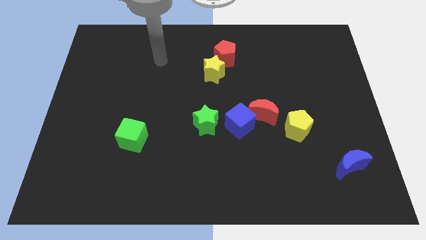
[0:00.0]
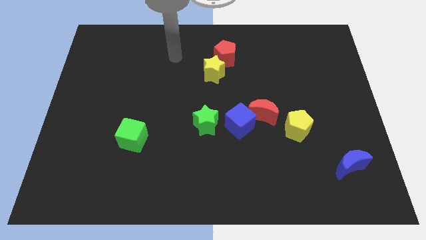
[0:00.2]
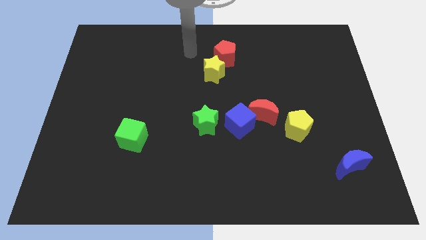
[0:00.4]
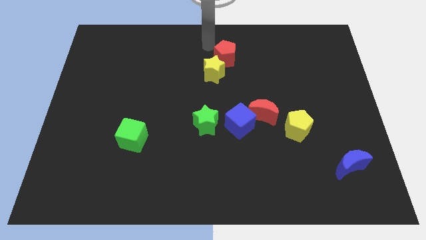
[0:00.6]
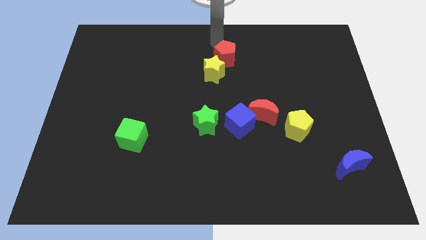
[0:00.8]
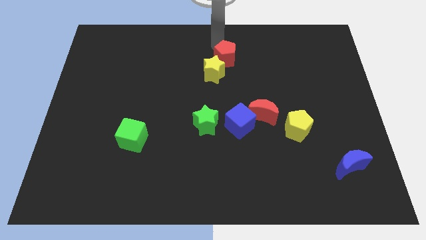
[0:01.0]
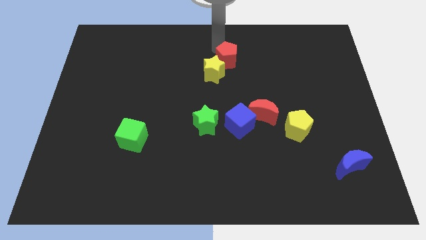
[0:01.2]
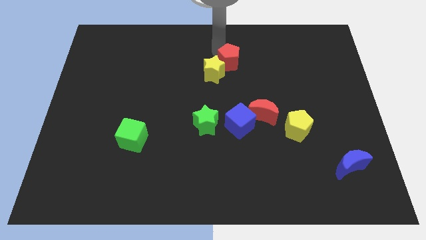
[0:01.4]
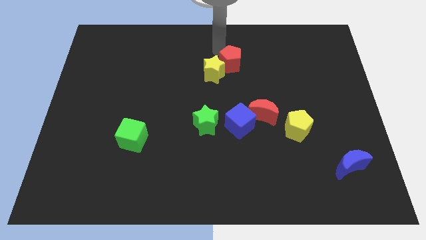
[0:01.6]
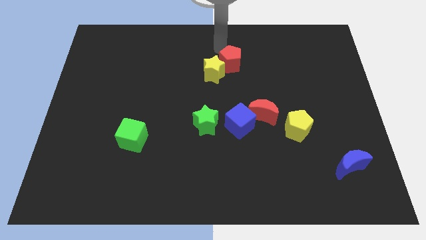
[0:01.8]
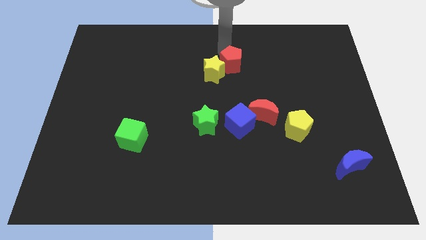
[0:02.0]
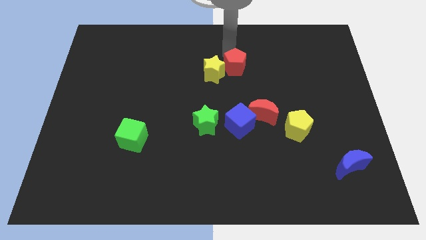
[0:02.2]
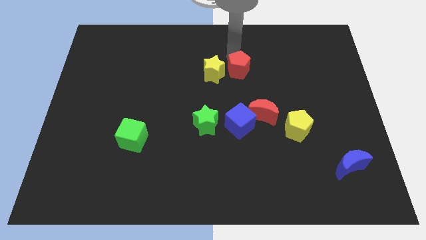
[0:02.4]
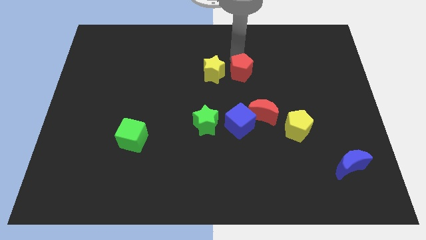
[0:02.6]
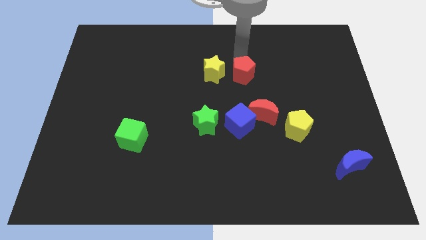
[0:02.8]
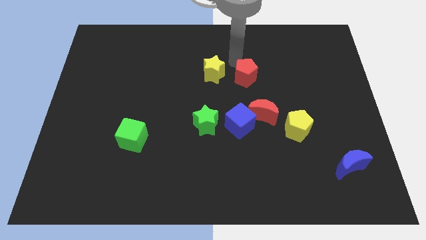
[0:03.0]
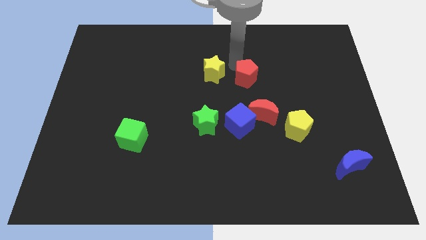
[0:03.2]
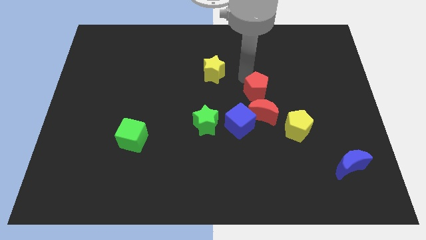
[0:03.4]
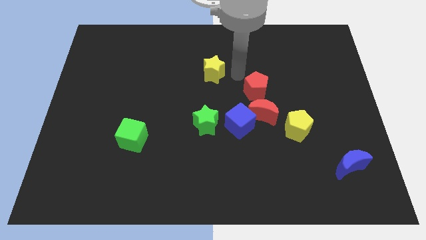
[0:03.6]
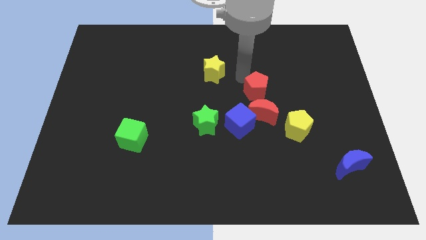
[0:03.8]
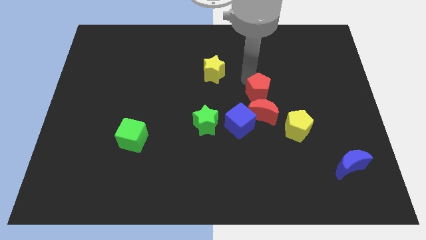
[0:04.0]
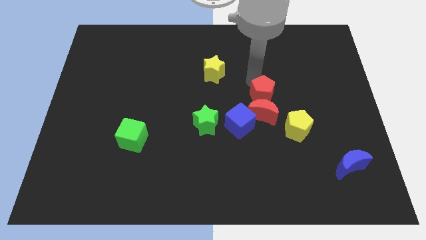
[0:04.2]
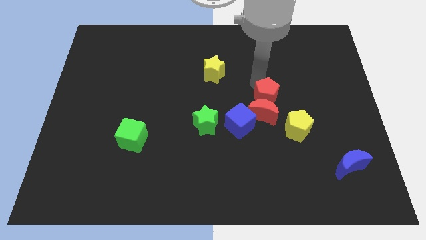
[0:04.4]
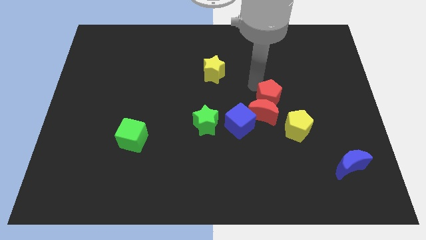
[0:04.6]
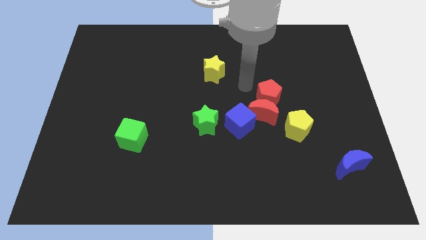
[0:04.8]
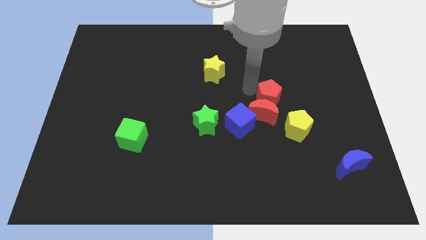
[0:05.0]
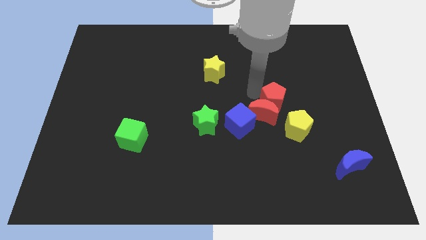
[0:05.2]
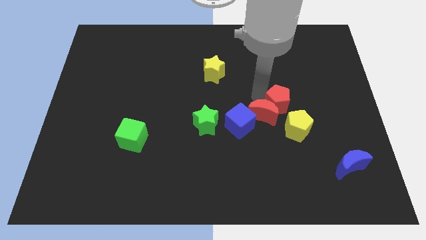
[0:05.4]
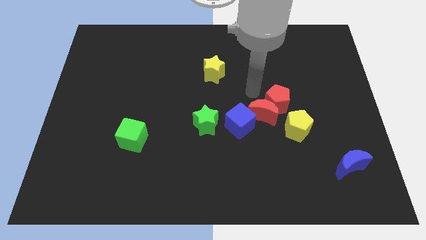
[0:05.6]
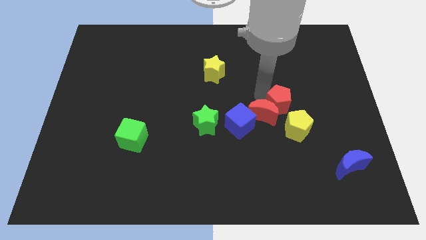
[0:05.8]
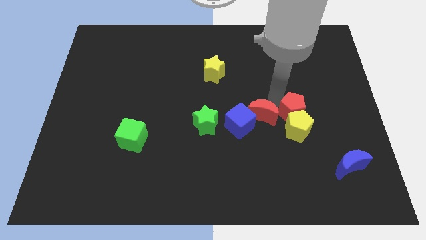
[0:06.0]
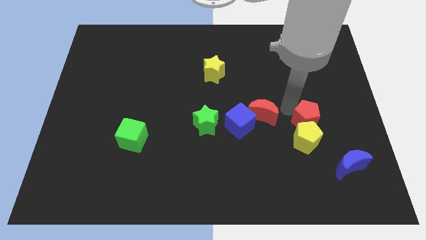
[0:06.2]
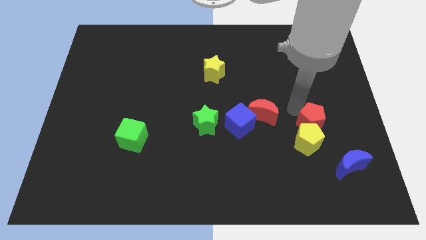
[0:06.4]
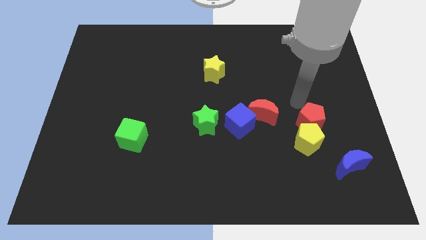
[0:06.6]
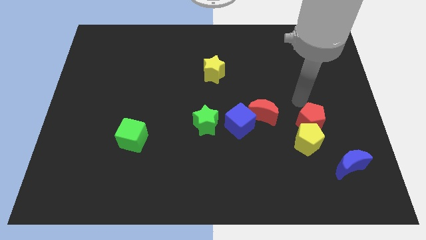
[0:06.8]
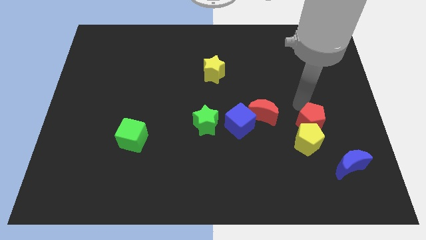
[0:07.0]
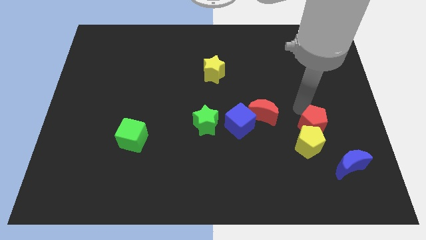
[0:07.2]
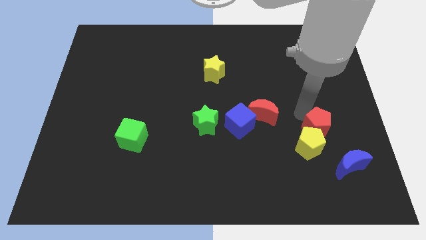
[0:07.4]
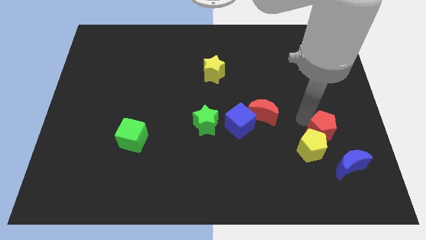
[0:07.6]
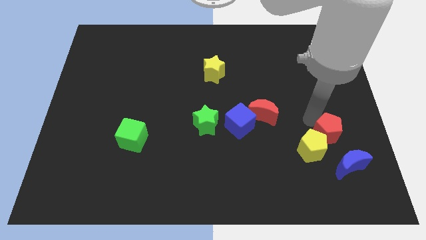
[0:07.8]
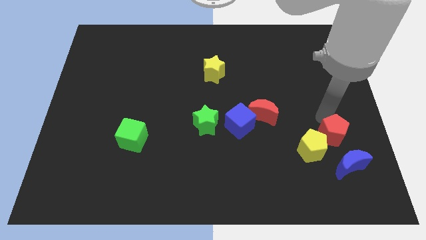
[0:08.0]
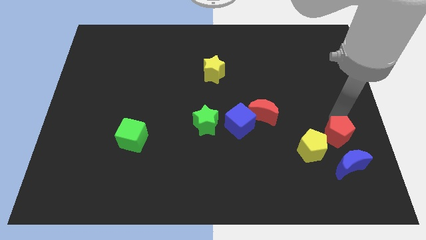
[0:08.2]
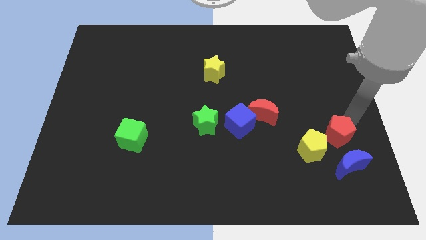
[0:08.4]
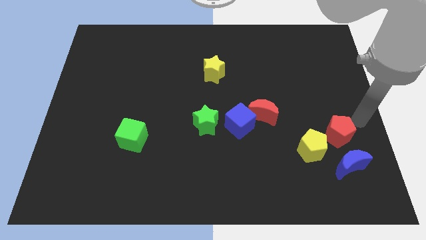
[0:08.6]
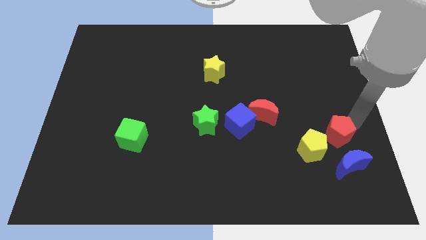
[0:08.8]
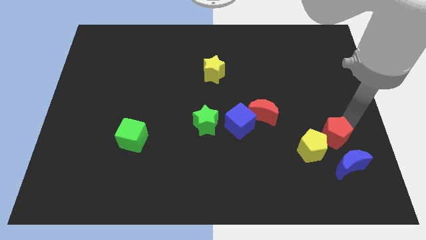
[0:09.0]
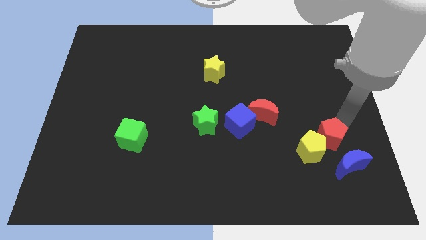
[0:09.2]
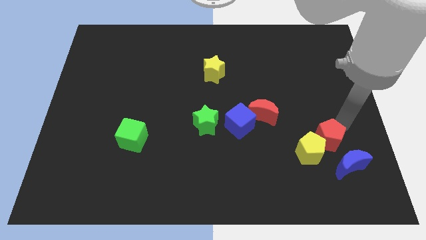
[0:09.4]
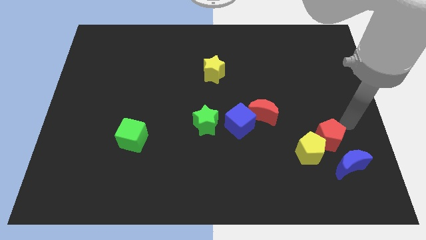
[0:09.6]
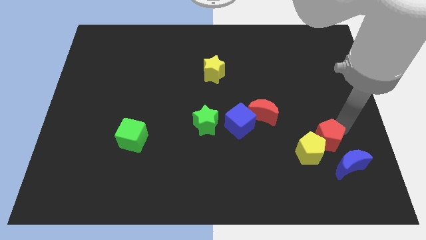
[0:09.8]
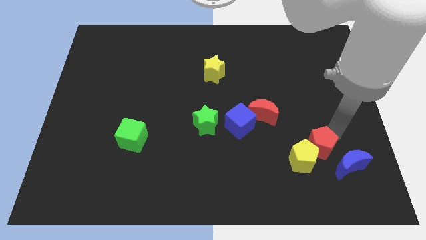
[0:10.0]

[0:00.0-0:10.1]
slide the red pentagon left of the blue moon
